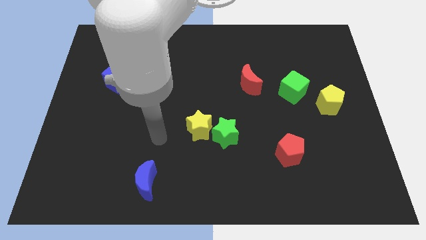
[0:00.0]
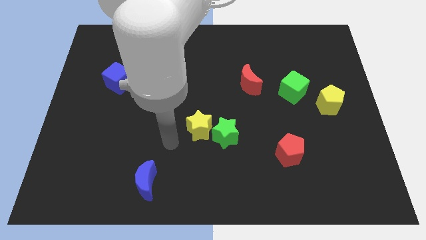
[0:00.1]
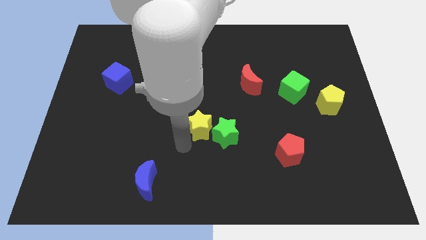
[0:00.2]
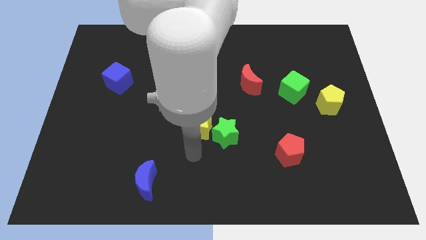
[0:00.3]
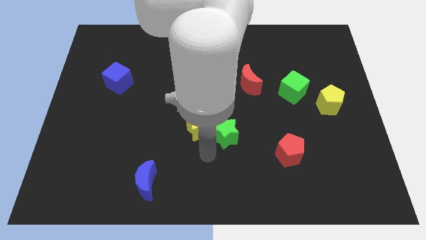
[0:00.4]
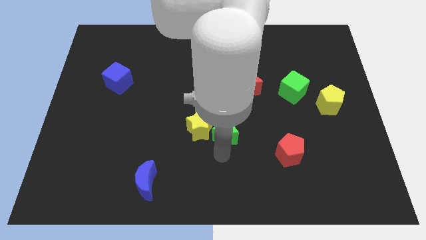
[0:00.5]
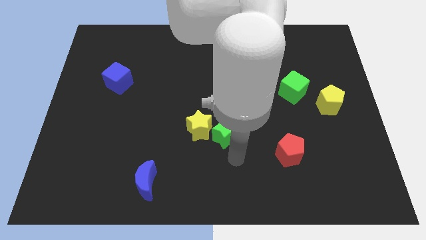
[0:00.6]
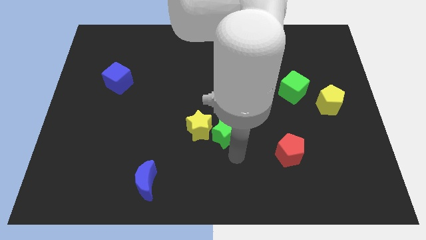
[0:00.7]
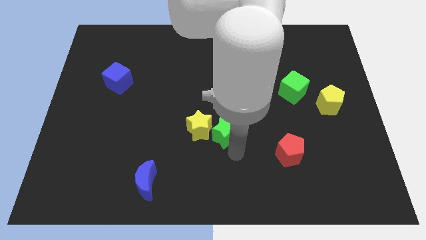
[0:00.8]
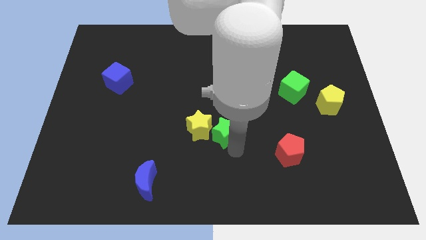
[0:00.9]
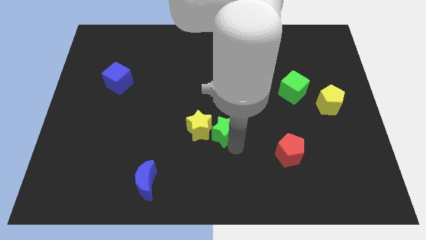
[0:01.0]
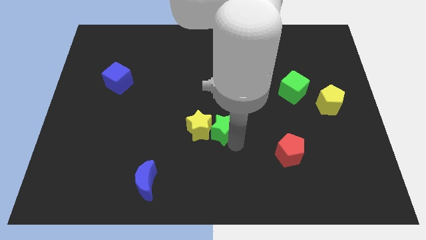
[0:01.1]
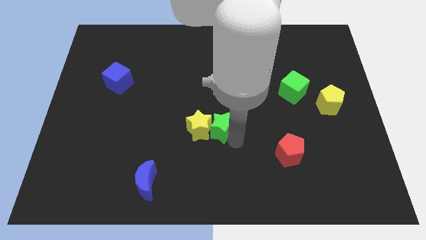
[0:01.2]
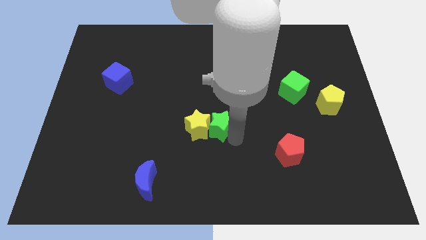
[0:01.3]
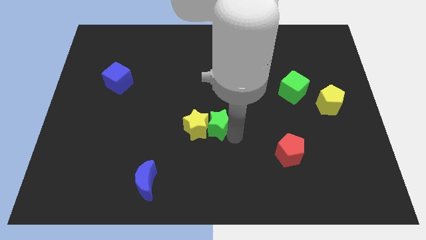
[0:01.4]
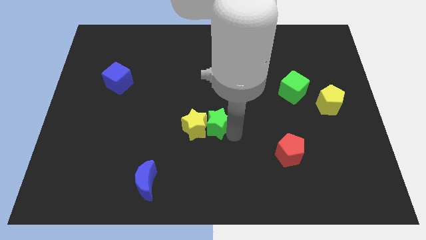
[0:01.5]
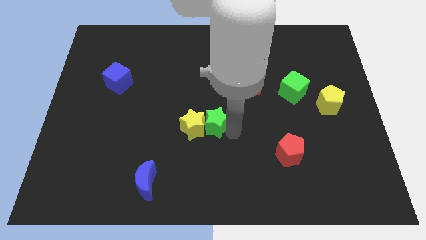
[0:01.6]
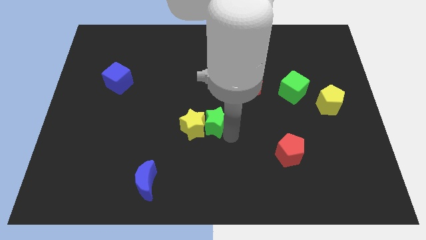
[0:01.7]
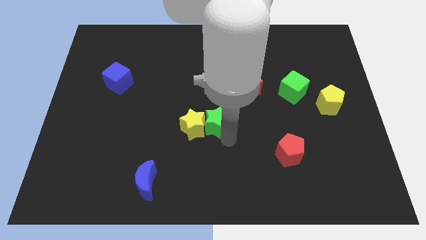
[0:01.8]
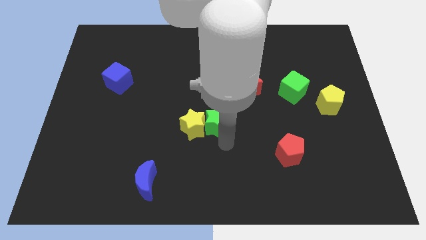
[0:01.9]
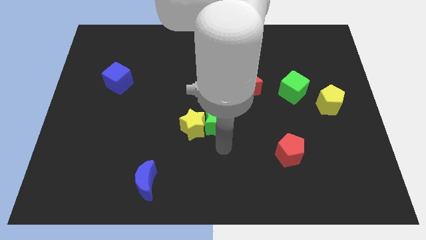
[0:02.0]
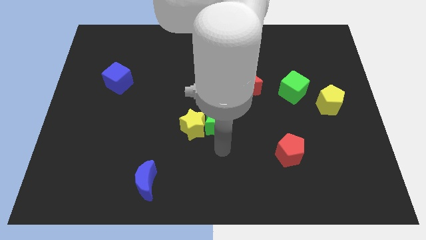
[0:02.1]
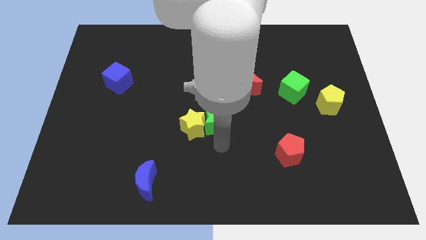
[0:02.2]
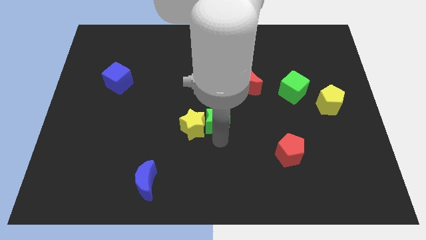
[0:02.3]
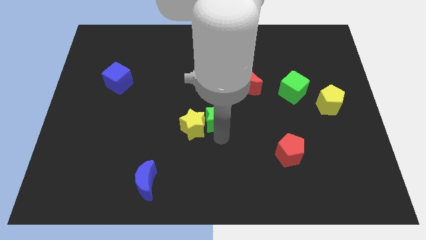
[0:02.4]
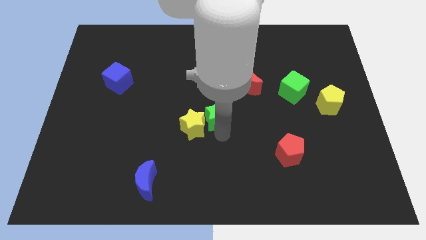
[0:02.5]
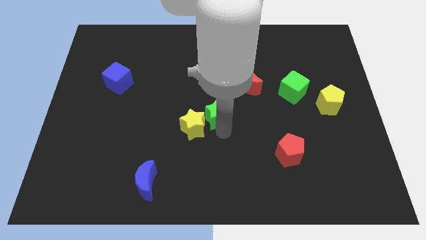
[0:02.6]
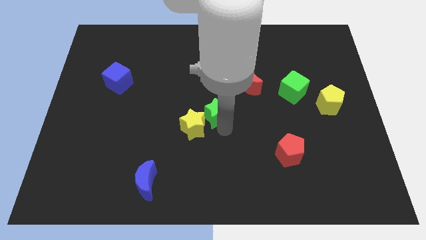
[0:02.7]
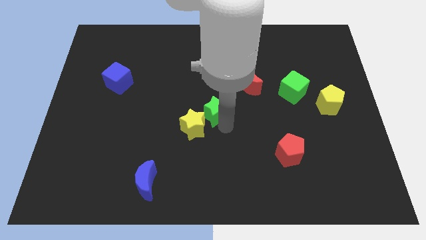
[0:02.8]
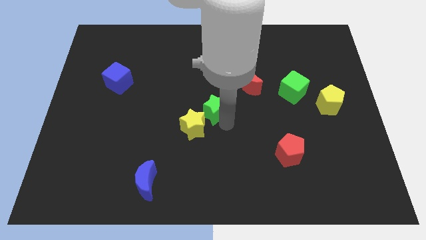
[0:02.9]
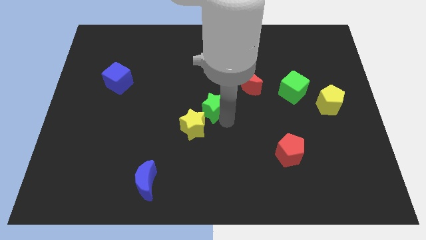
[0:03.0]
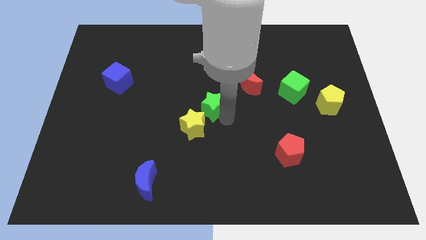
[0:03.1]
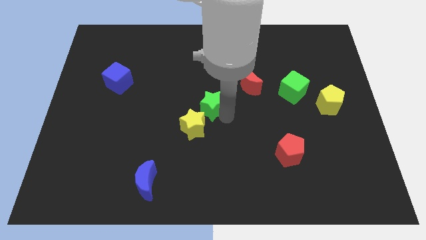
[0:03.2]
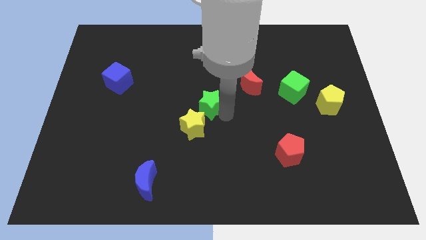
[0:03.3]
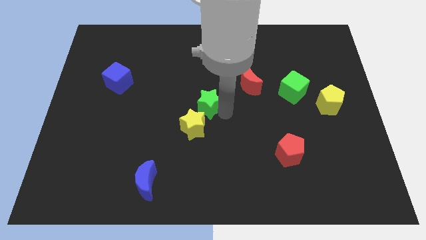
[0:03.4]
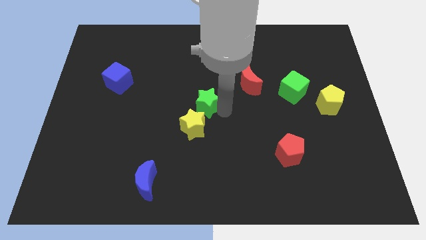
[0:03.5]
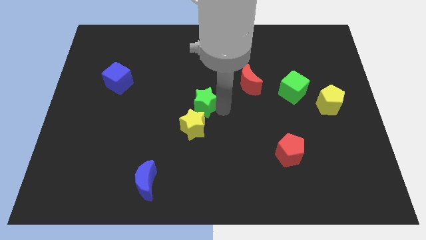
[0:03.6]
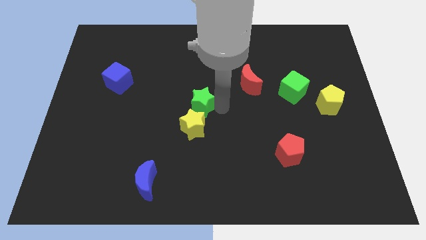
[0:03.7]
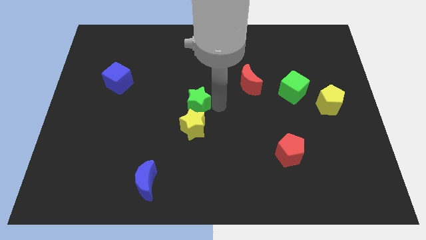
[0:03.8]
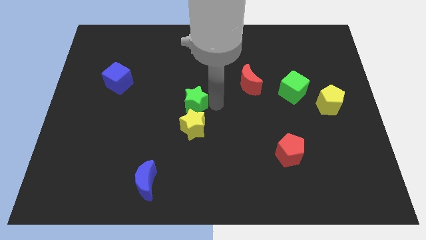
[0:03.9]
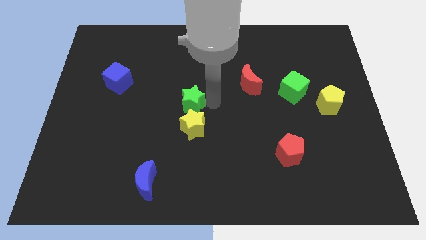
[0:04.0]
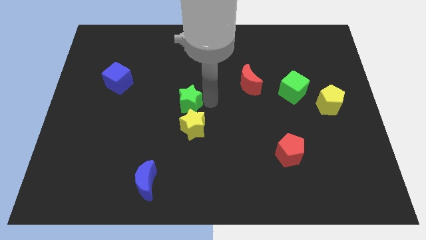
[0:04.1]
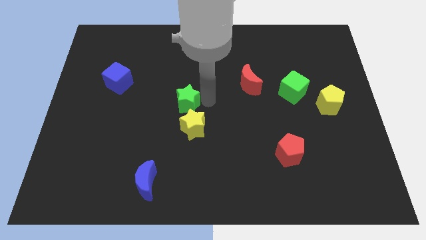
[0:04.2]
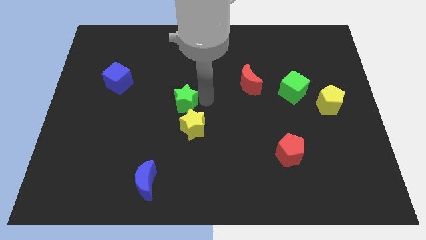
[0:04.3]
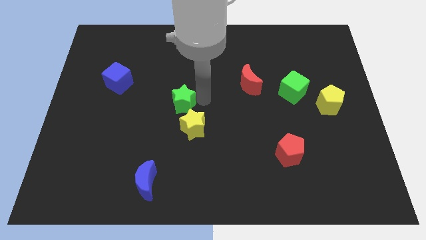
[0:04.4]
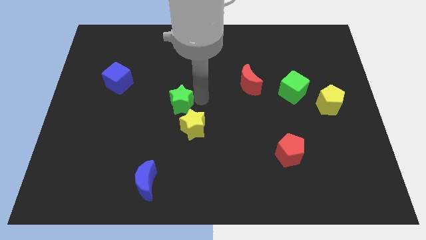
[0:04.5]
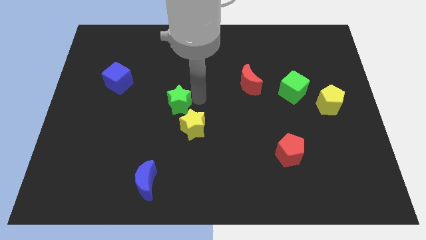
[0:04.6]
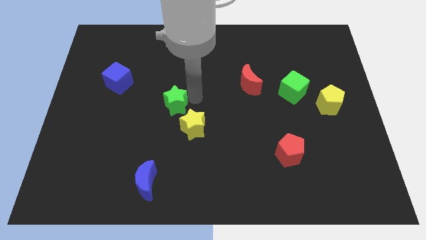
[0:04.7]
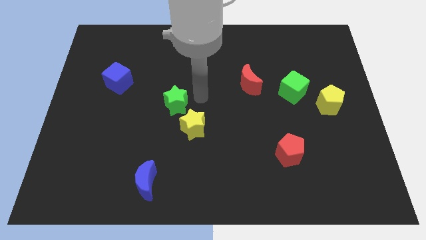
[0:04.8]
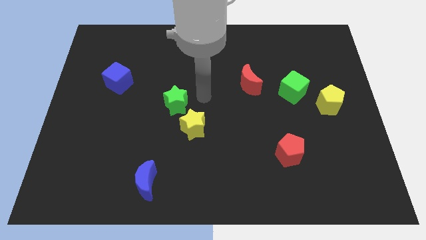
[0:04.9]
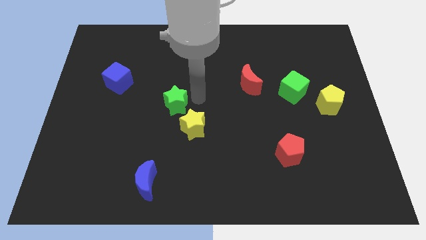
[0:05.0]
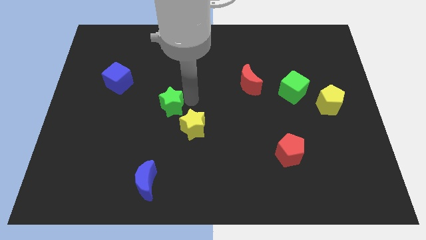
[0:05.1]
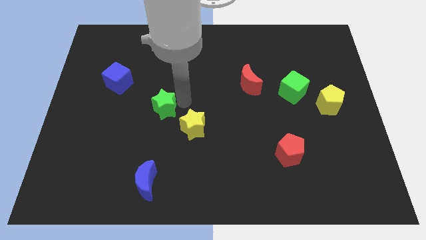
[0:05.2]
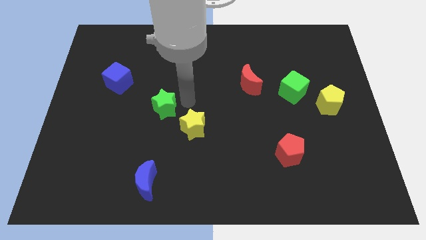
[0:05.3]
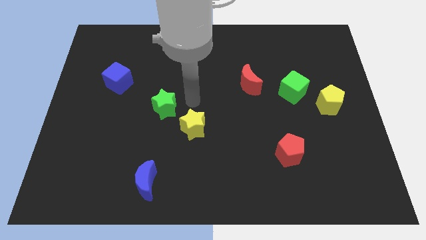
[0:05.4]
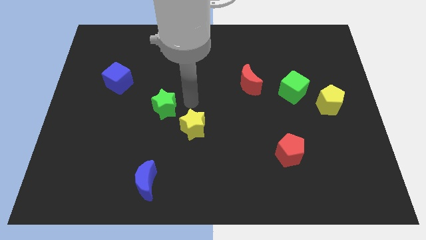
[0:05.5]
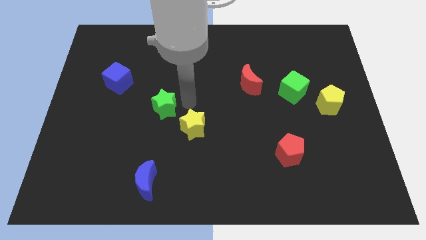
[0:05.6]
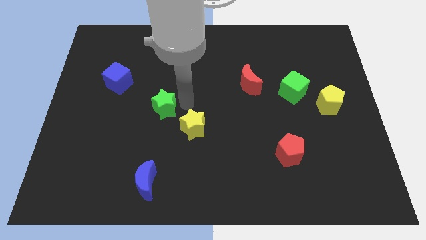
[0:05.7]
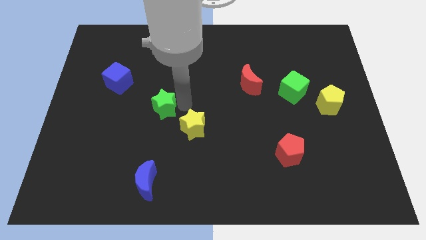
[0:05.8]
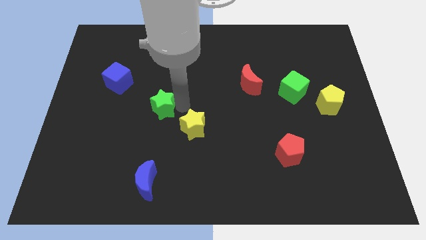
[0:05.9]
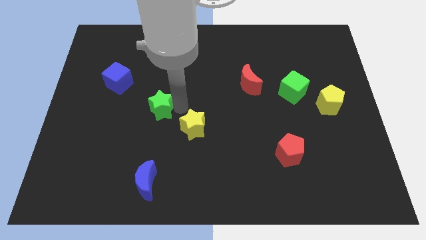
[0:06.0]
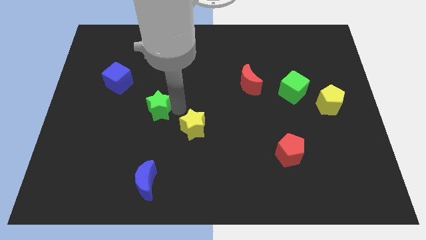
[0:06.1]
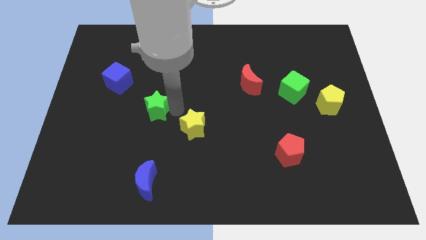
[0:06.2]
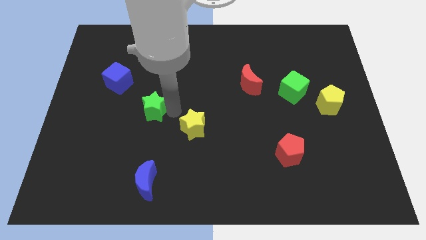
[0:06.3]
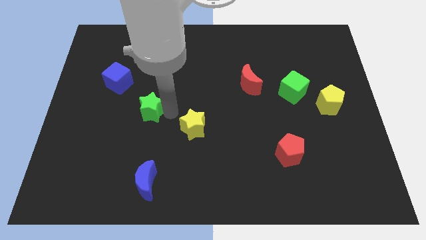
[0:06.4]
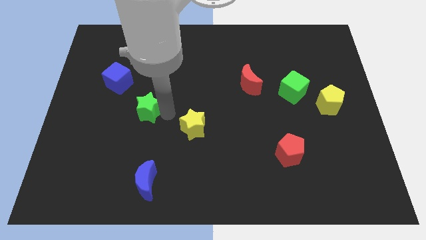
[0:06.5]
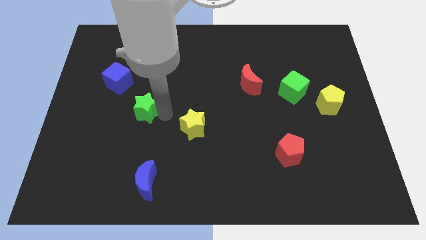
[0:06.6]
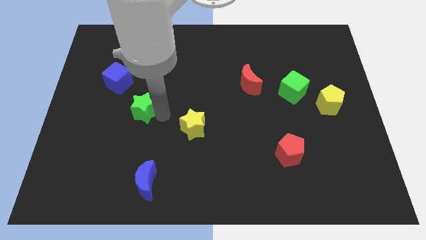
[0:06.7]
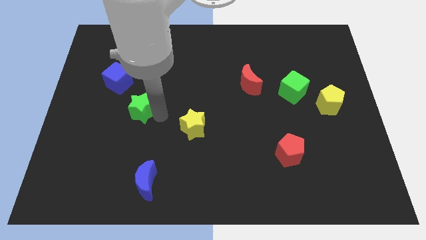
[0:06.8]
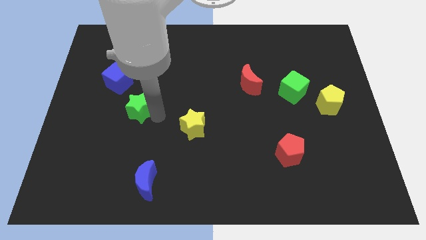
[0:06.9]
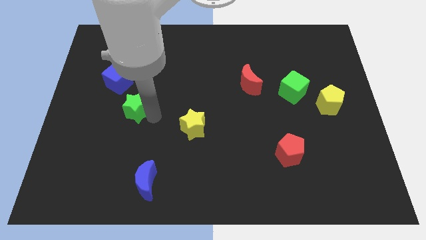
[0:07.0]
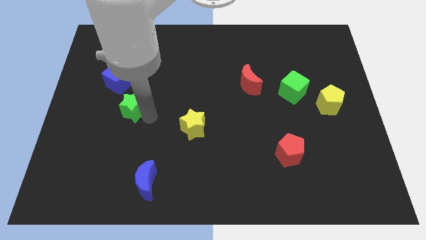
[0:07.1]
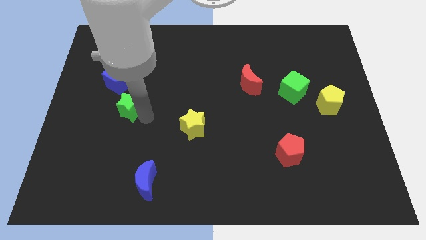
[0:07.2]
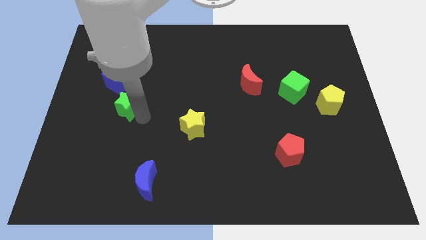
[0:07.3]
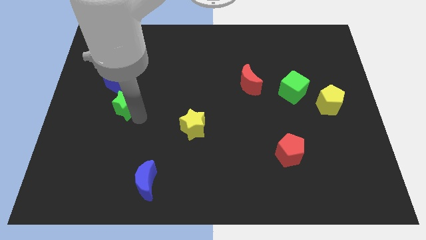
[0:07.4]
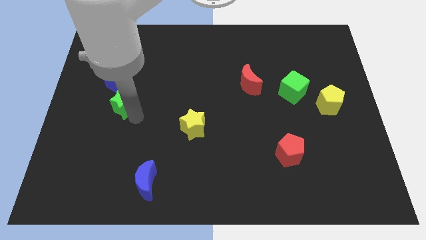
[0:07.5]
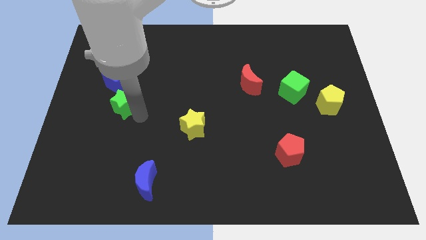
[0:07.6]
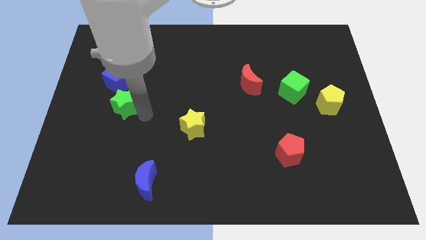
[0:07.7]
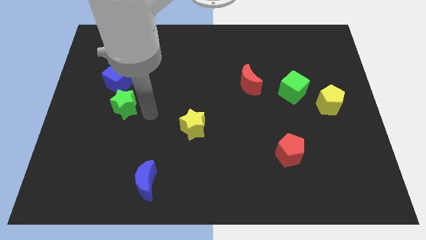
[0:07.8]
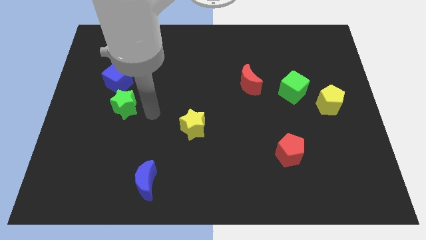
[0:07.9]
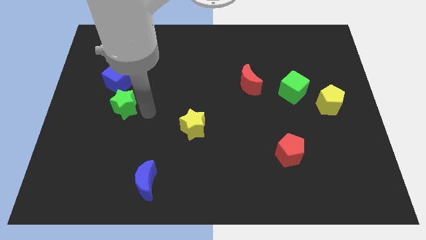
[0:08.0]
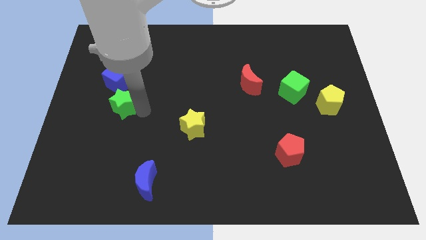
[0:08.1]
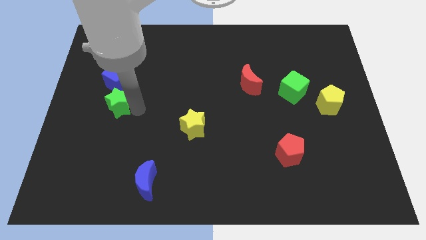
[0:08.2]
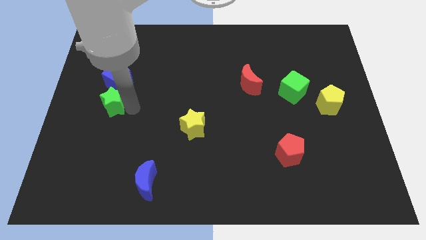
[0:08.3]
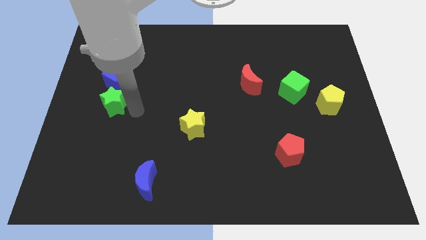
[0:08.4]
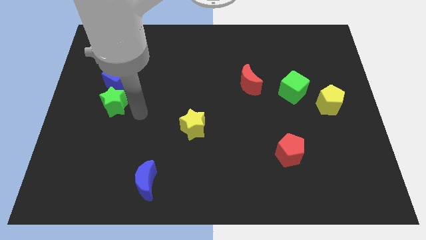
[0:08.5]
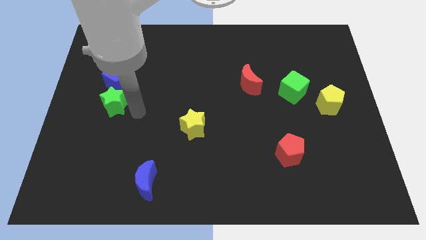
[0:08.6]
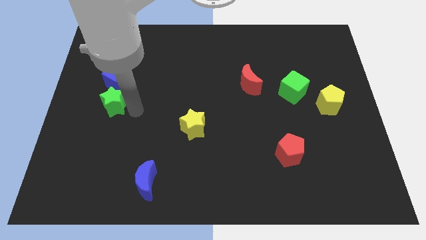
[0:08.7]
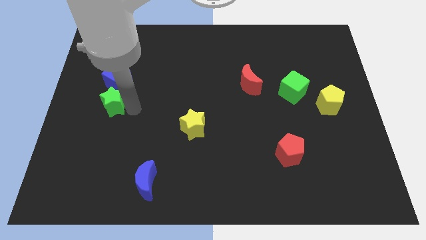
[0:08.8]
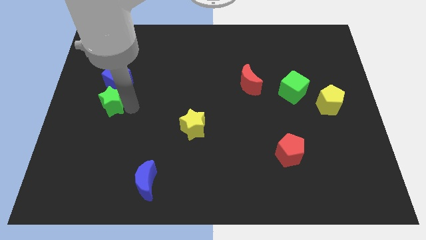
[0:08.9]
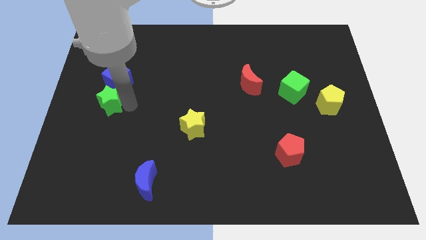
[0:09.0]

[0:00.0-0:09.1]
move the green star to the bottom left of the blue cube
